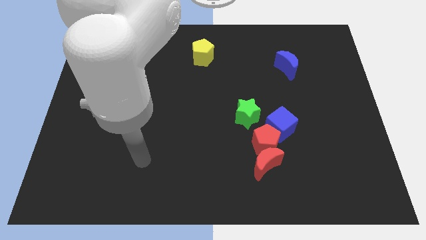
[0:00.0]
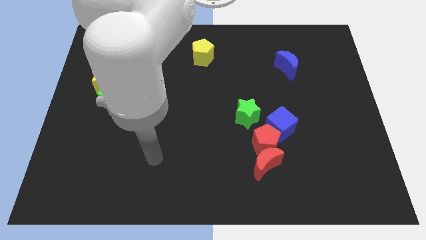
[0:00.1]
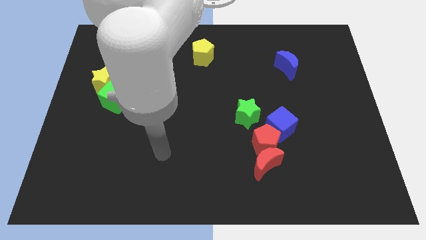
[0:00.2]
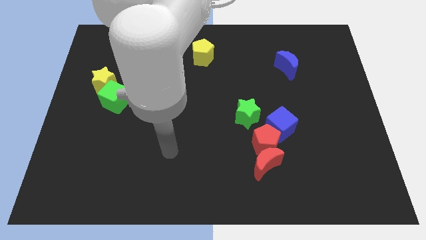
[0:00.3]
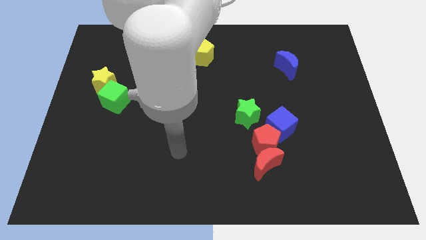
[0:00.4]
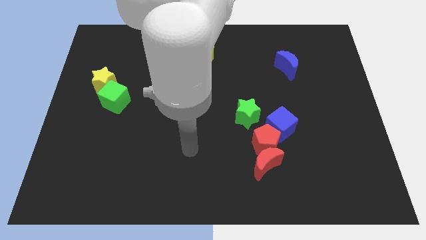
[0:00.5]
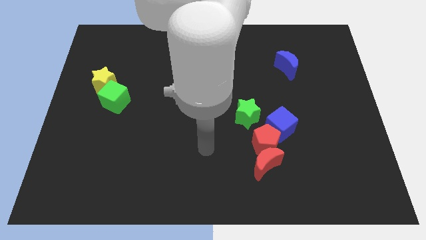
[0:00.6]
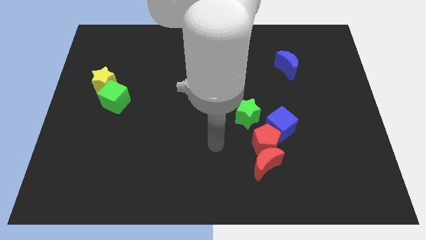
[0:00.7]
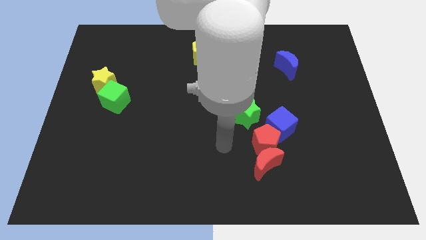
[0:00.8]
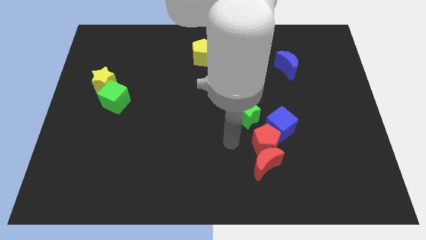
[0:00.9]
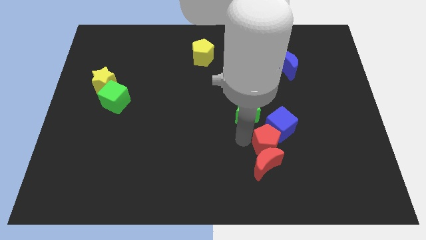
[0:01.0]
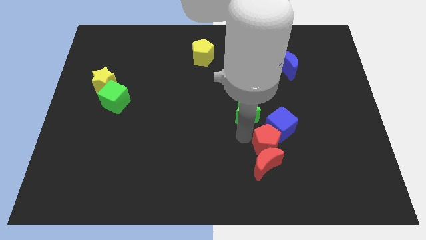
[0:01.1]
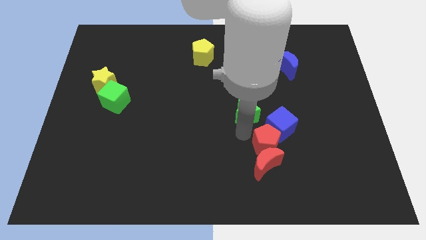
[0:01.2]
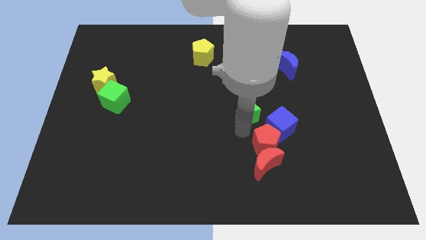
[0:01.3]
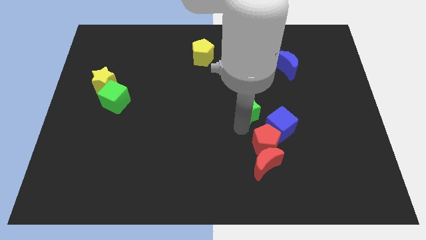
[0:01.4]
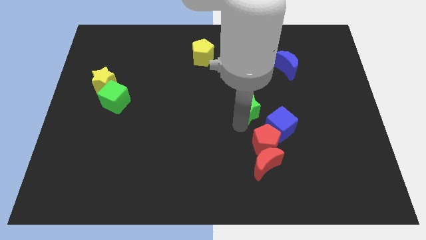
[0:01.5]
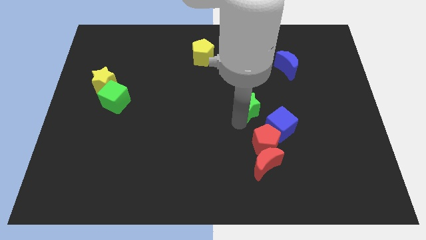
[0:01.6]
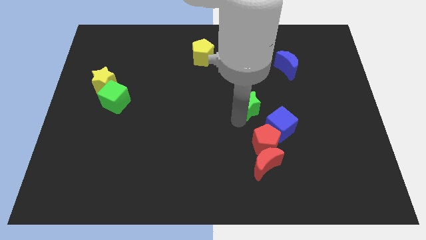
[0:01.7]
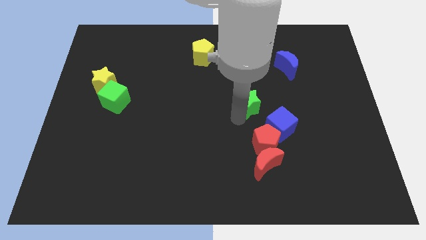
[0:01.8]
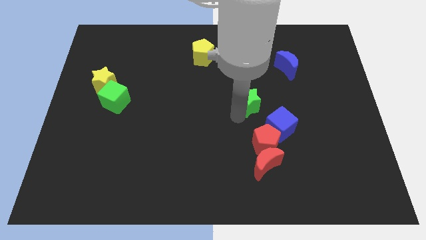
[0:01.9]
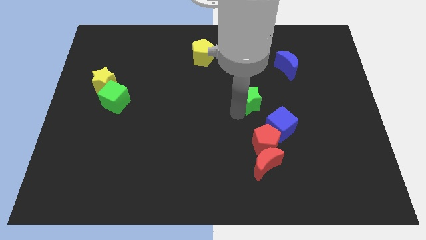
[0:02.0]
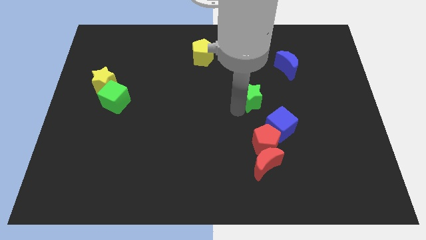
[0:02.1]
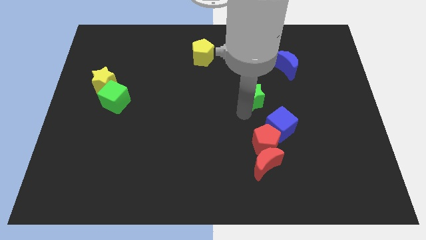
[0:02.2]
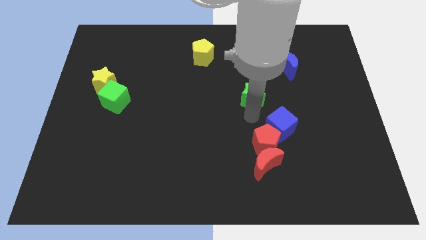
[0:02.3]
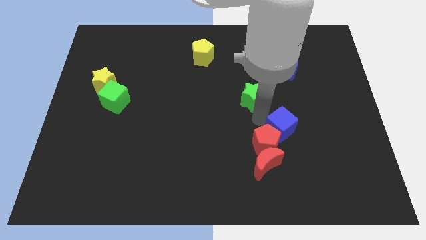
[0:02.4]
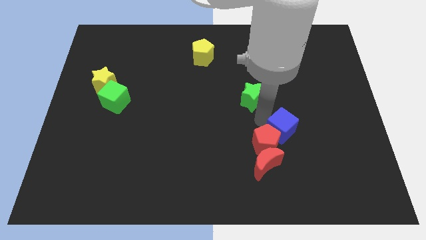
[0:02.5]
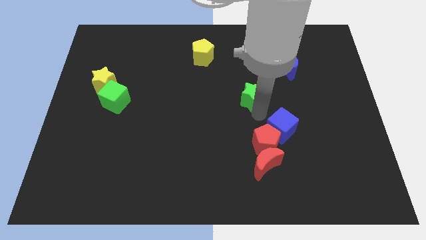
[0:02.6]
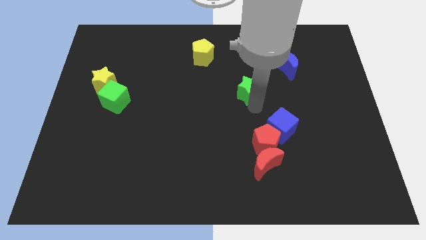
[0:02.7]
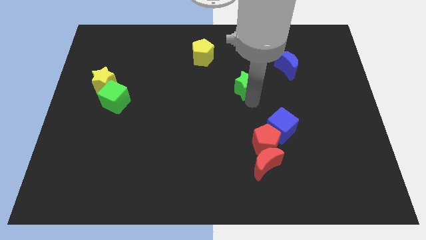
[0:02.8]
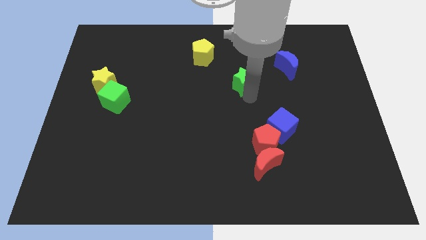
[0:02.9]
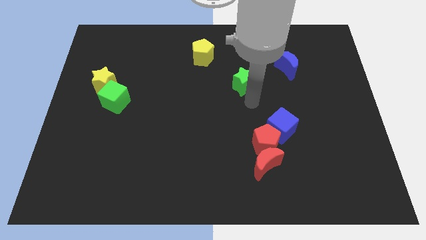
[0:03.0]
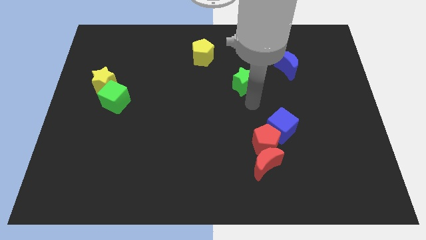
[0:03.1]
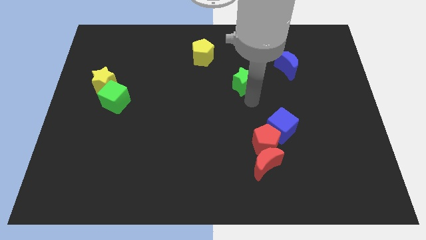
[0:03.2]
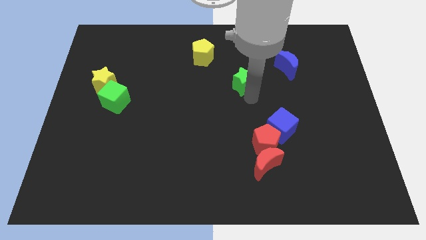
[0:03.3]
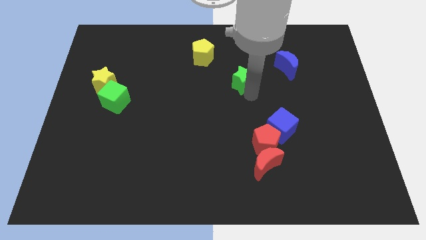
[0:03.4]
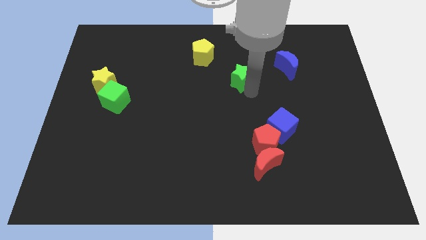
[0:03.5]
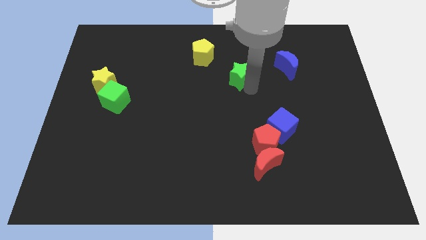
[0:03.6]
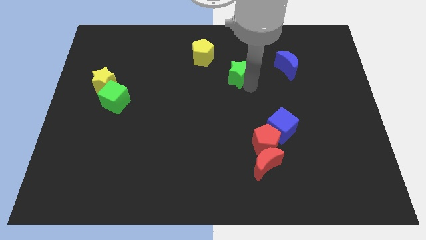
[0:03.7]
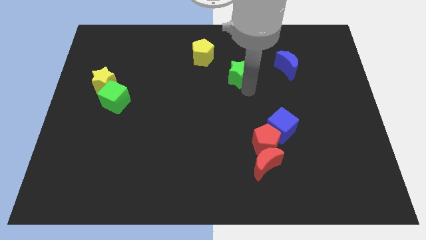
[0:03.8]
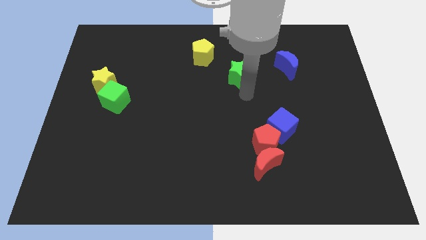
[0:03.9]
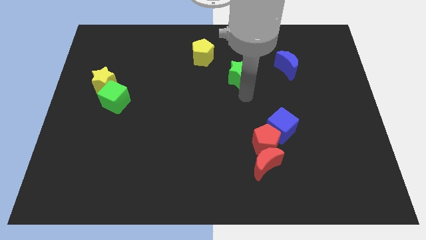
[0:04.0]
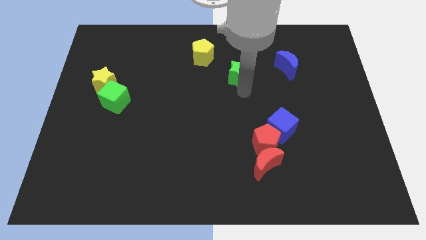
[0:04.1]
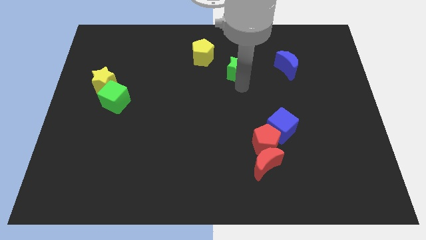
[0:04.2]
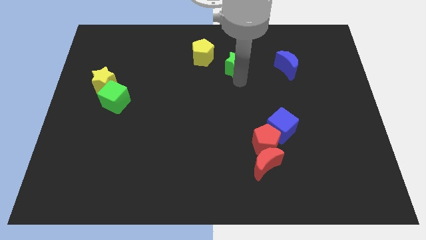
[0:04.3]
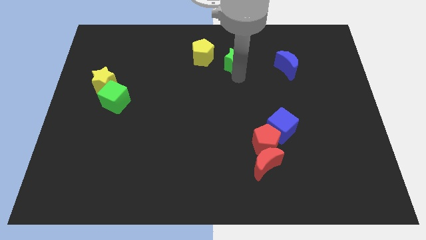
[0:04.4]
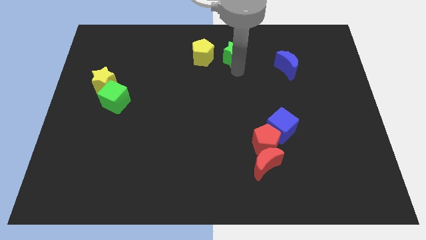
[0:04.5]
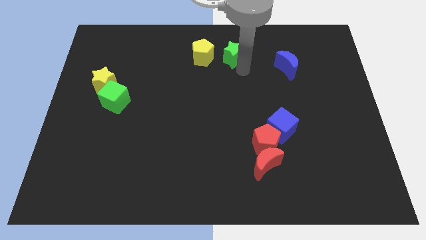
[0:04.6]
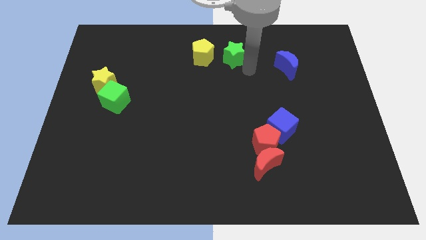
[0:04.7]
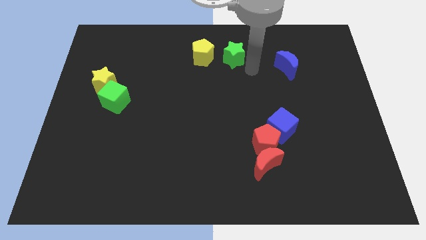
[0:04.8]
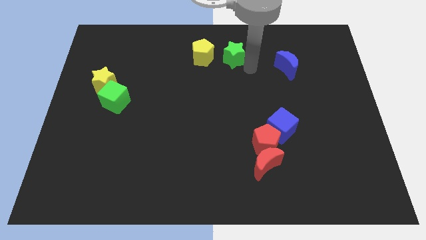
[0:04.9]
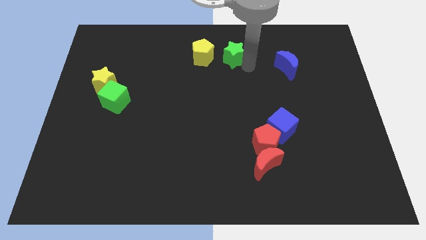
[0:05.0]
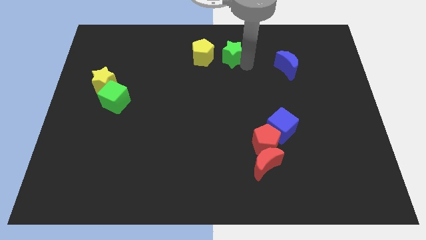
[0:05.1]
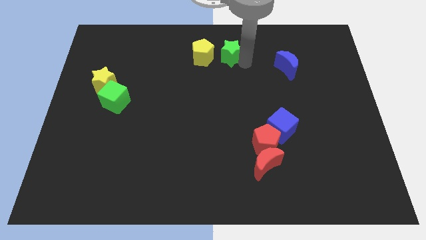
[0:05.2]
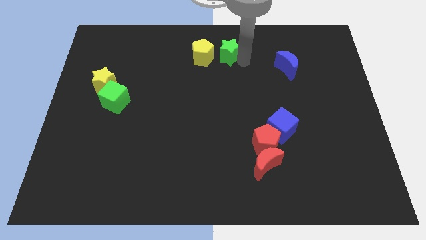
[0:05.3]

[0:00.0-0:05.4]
move the green star to the top

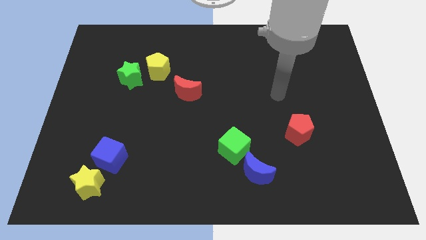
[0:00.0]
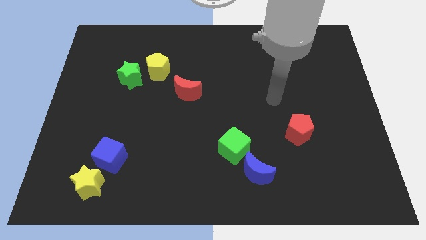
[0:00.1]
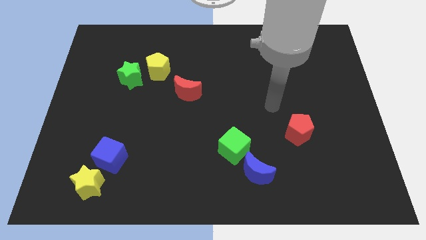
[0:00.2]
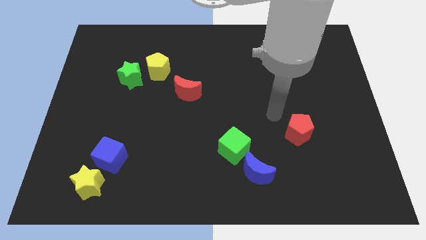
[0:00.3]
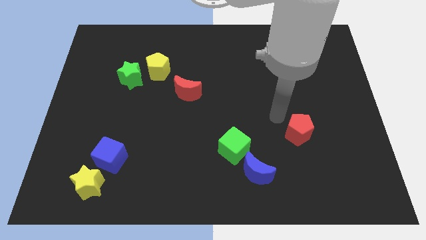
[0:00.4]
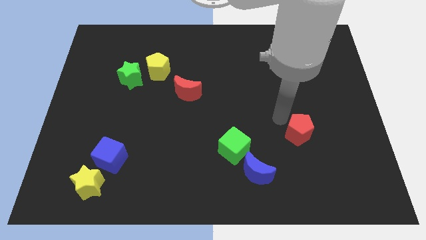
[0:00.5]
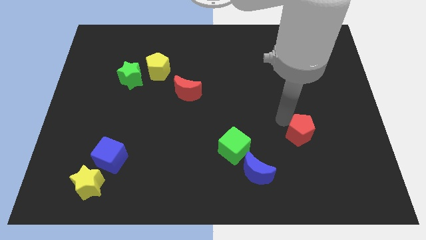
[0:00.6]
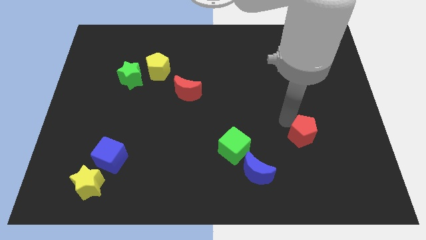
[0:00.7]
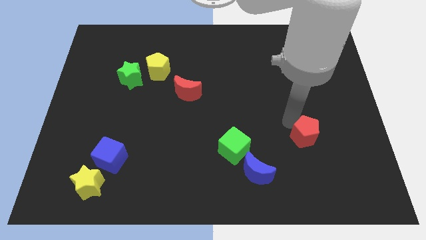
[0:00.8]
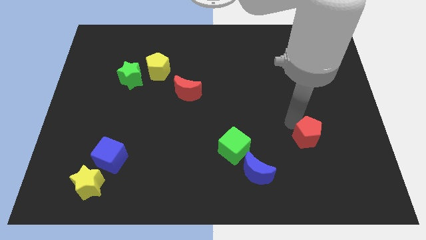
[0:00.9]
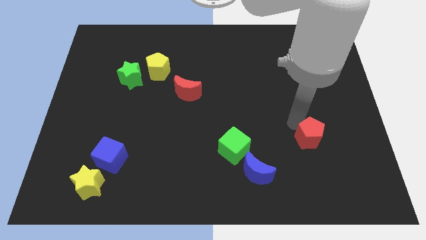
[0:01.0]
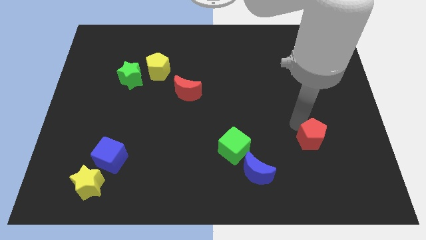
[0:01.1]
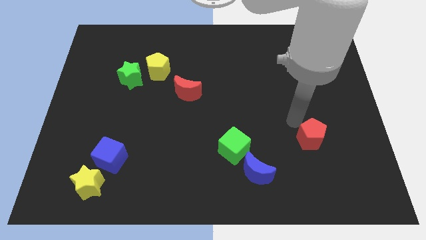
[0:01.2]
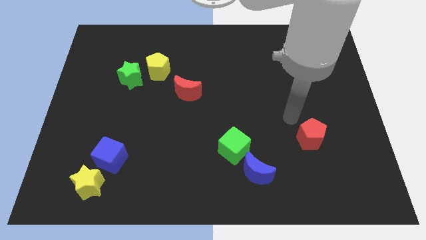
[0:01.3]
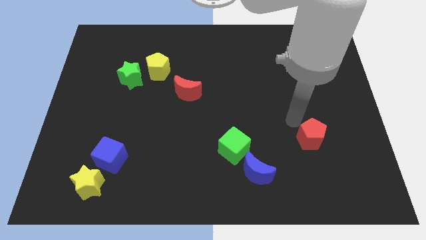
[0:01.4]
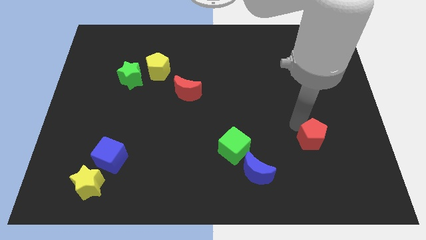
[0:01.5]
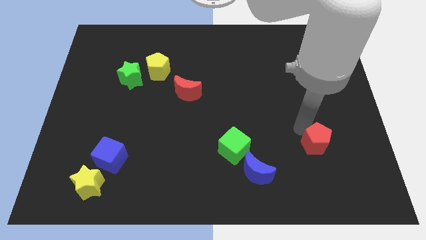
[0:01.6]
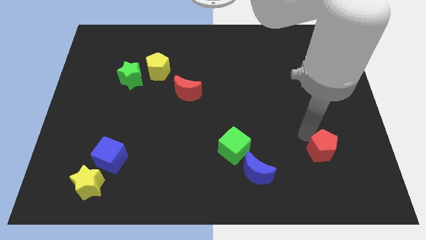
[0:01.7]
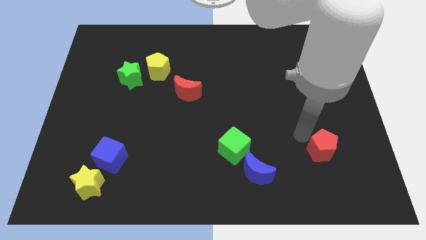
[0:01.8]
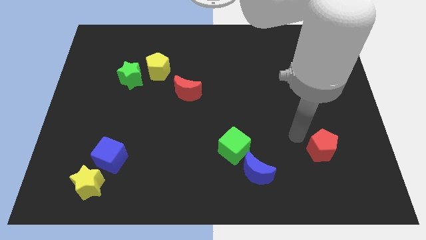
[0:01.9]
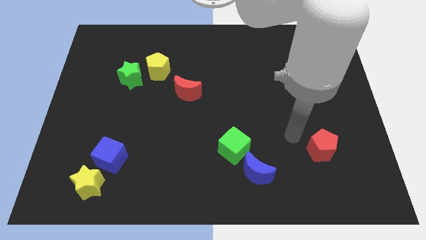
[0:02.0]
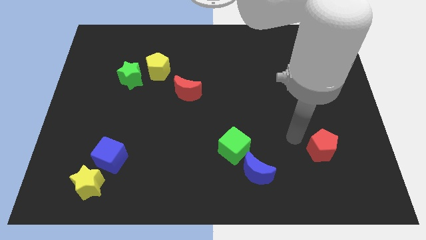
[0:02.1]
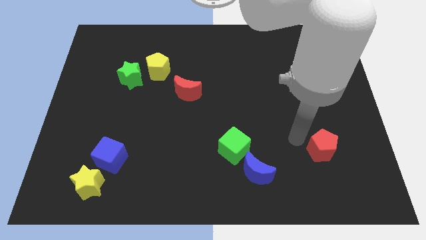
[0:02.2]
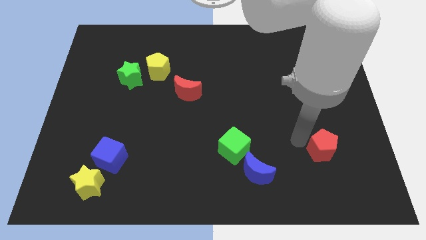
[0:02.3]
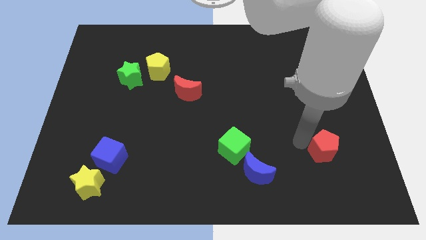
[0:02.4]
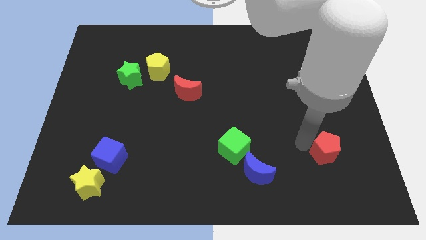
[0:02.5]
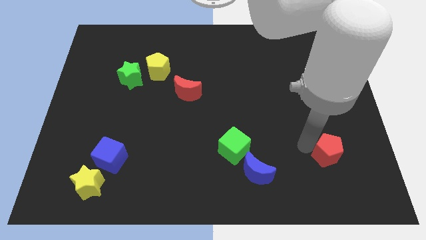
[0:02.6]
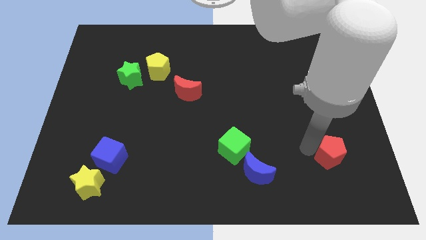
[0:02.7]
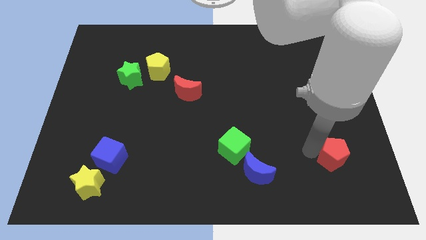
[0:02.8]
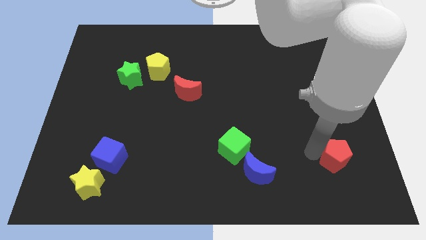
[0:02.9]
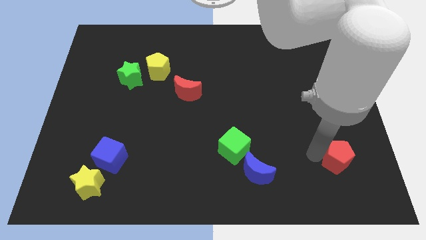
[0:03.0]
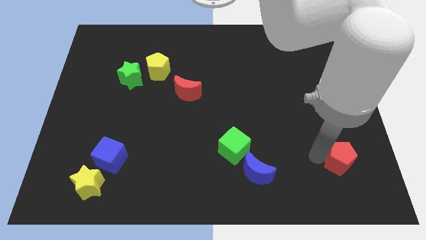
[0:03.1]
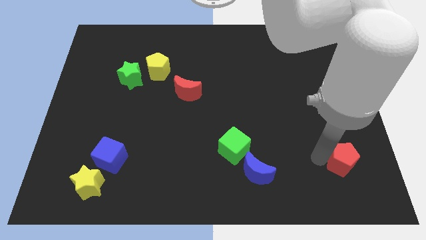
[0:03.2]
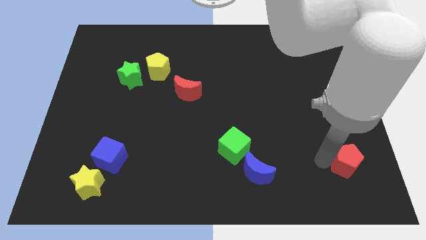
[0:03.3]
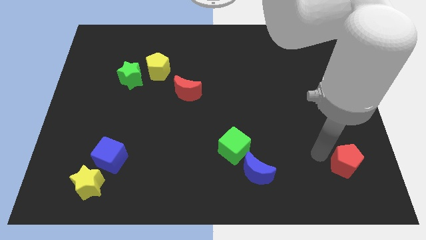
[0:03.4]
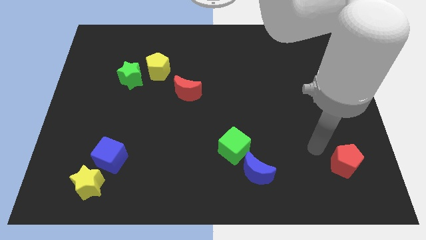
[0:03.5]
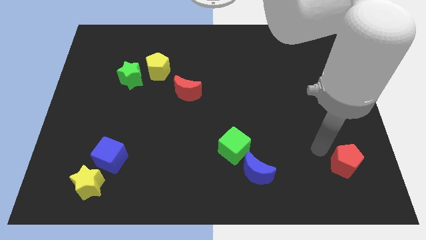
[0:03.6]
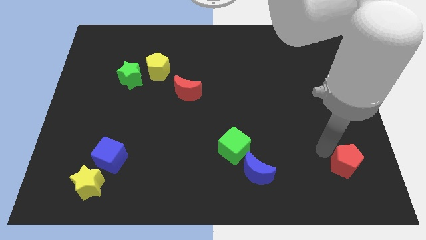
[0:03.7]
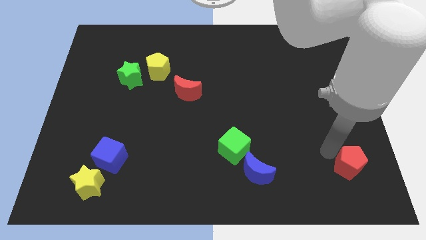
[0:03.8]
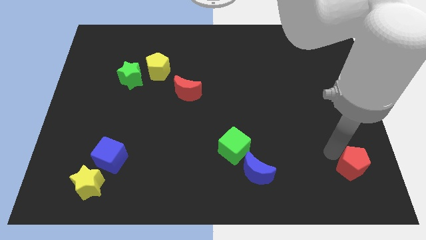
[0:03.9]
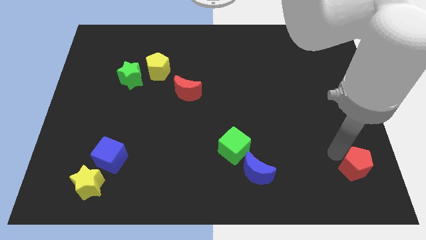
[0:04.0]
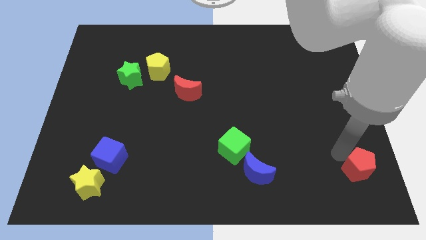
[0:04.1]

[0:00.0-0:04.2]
push the red pentagon to the bottom right corner
